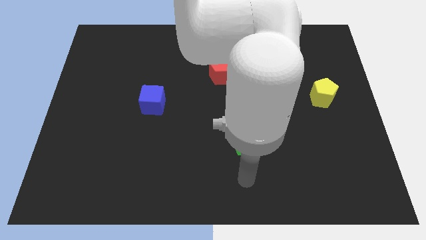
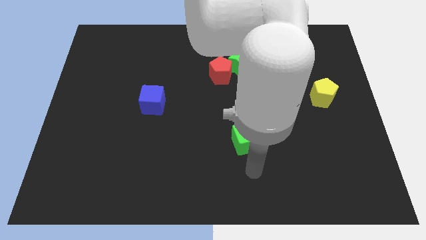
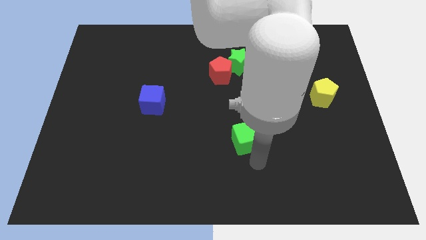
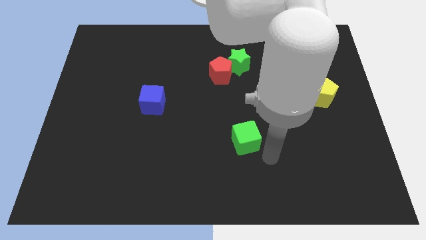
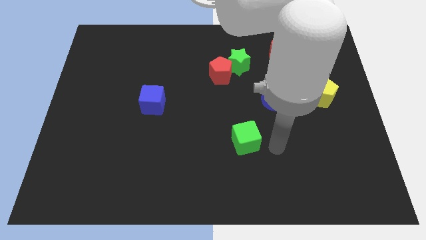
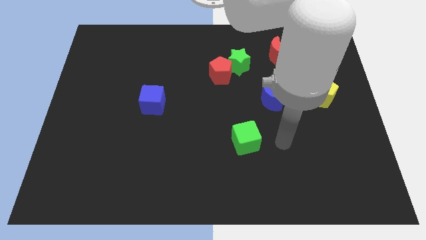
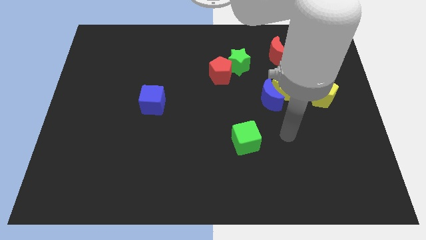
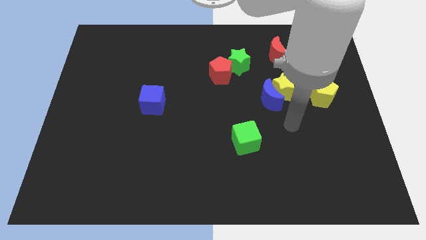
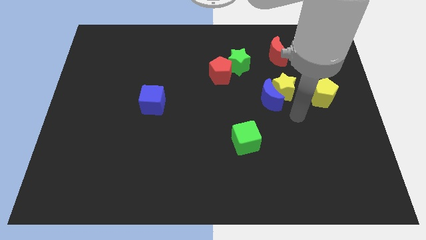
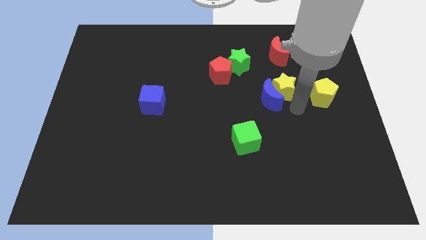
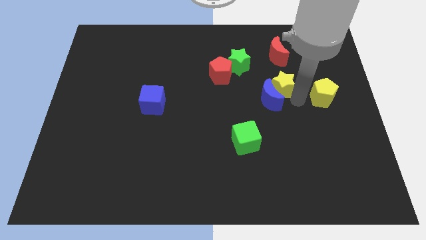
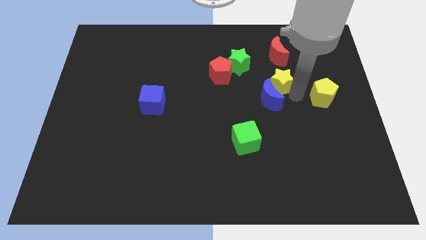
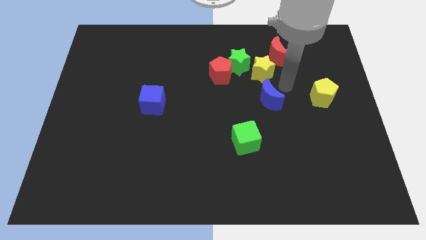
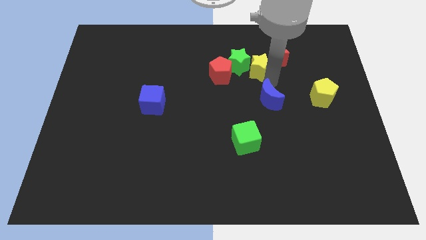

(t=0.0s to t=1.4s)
pull the blue moon apart from the yellow star

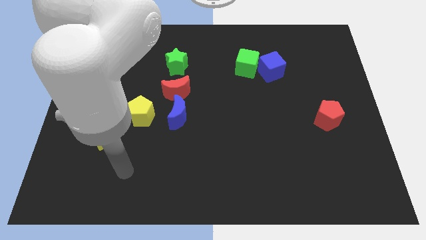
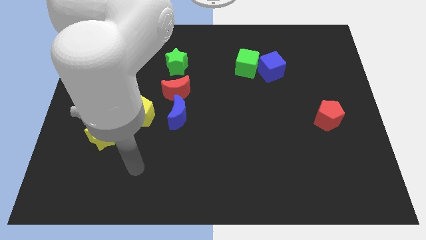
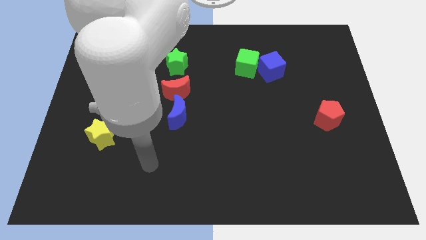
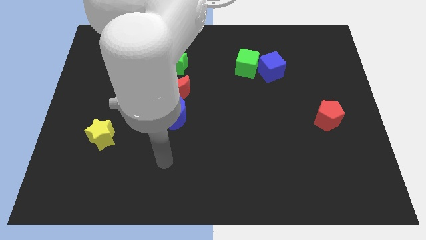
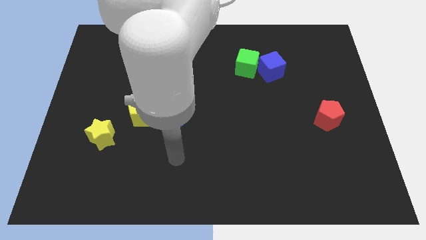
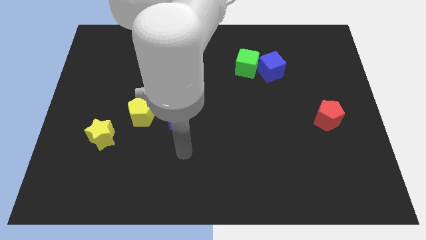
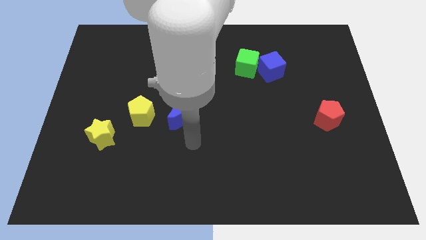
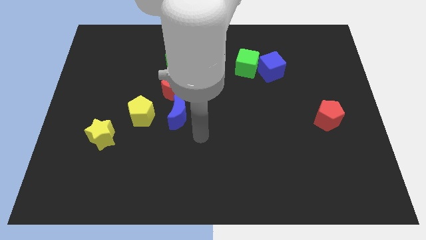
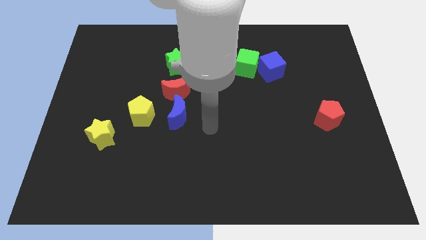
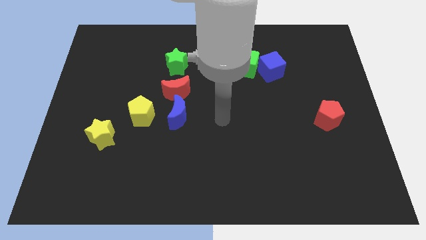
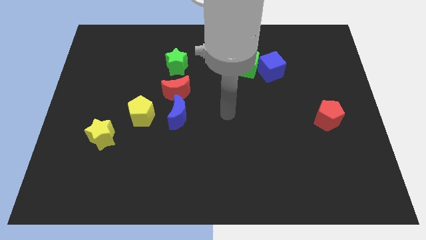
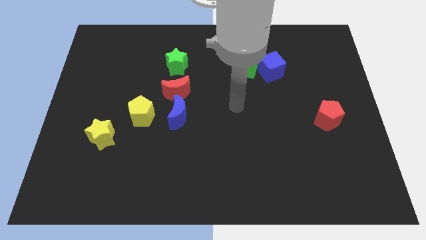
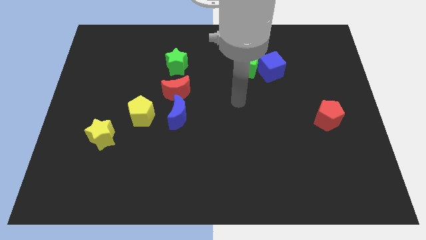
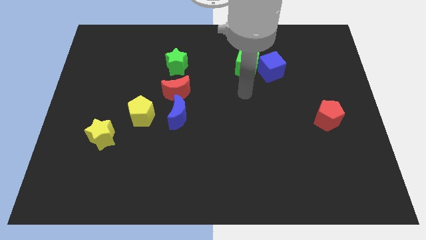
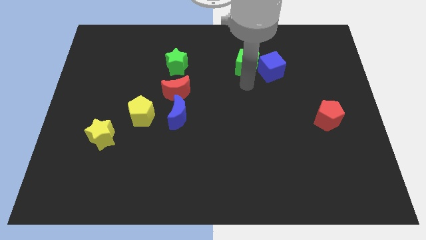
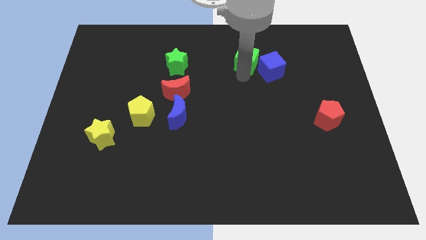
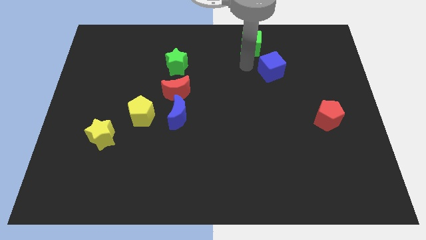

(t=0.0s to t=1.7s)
separate the blue cube from the green cube

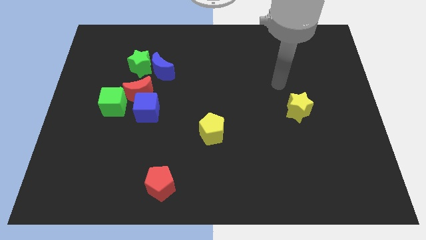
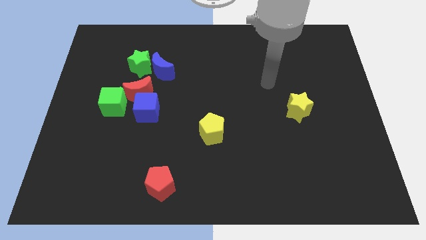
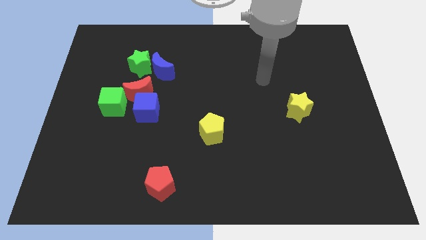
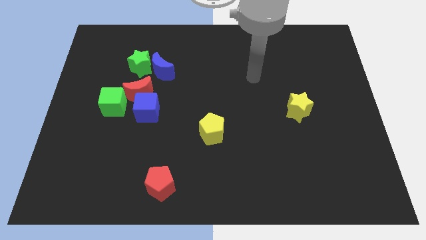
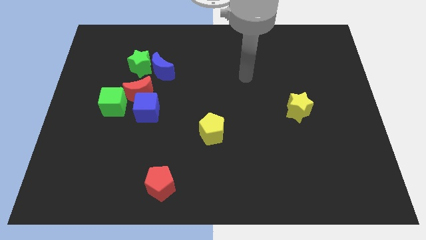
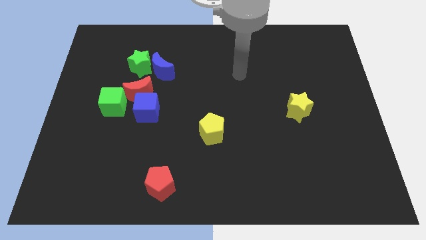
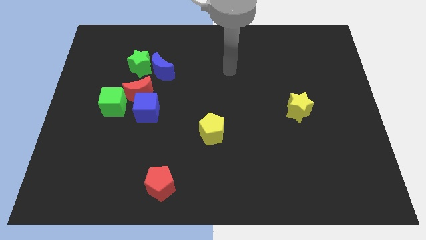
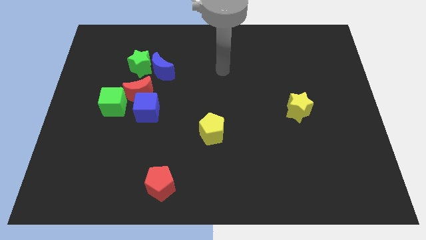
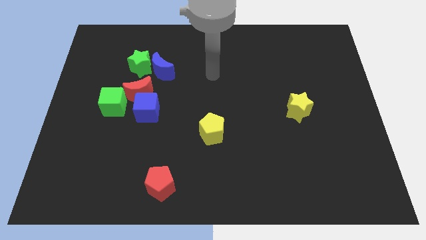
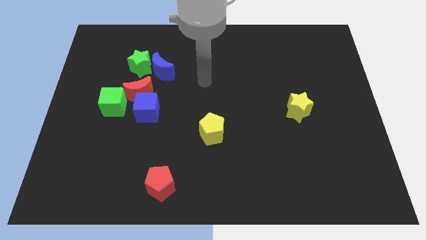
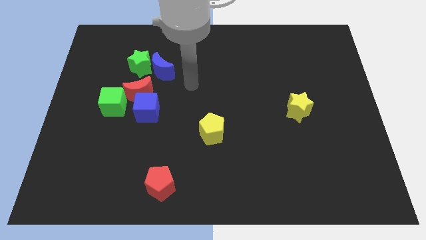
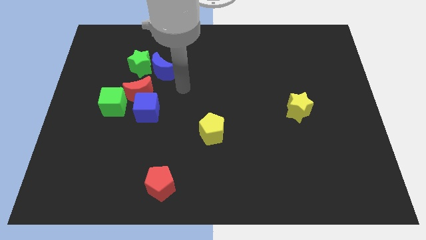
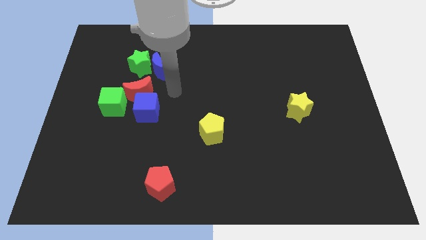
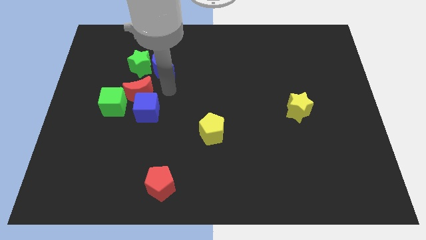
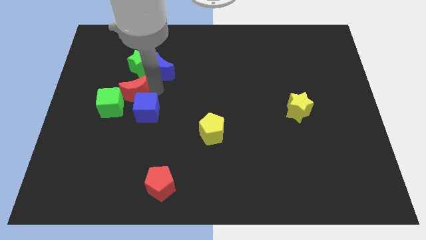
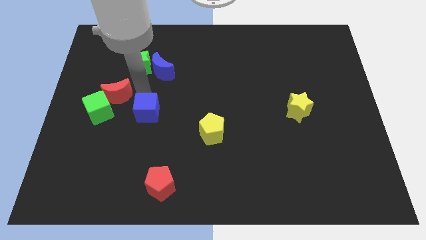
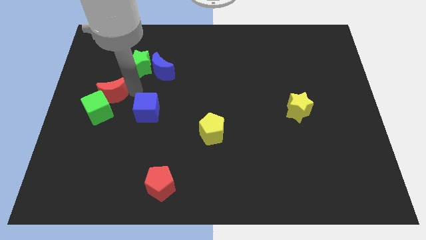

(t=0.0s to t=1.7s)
separate the blue cube from the red moon and green cube

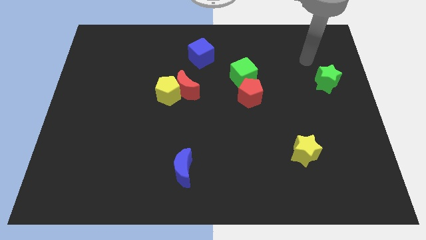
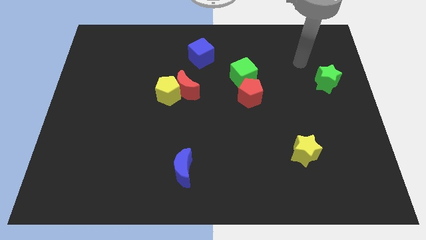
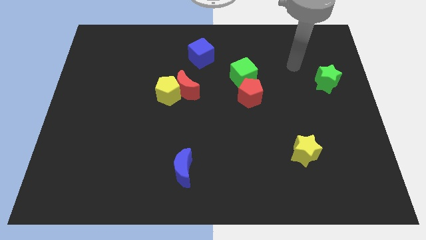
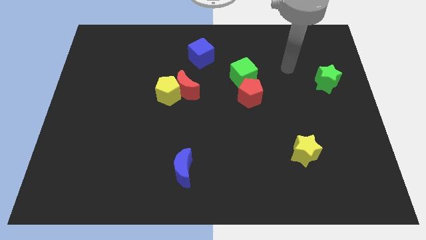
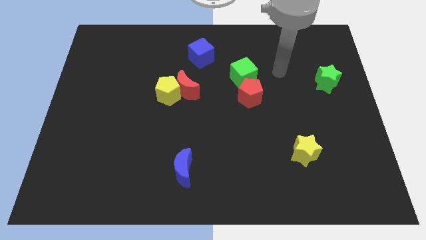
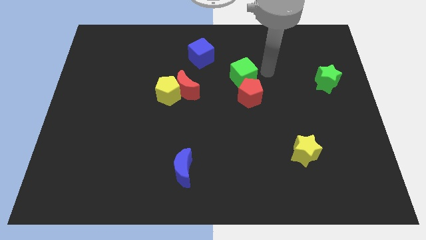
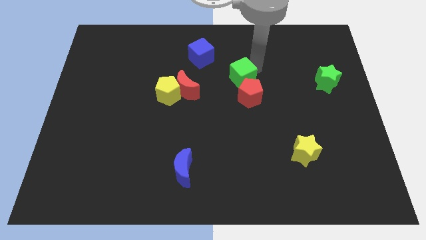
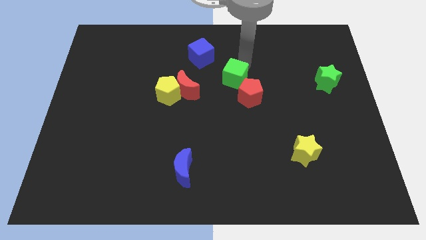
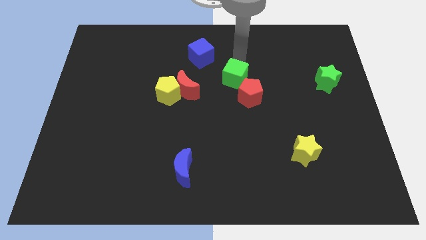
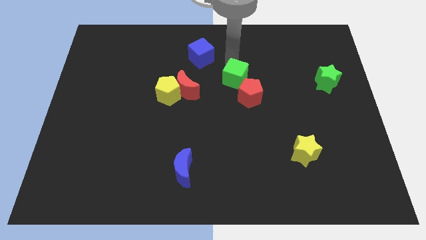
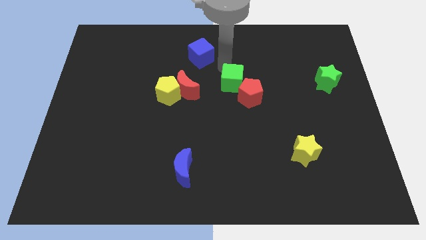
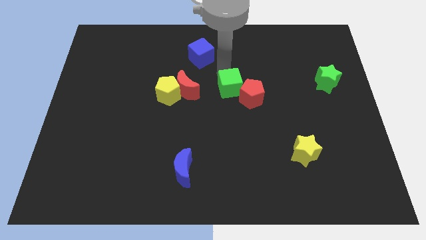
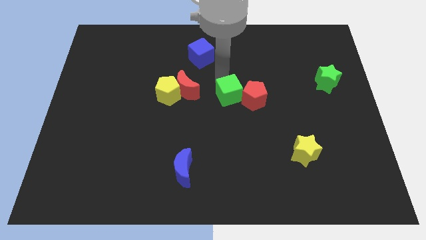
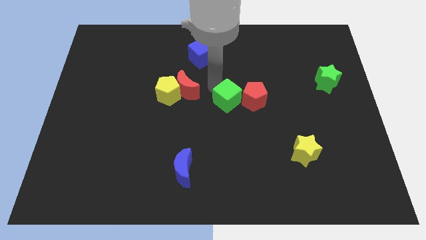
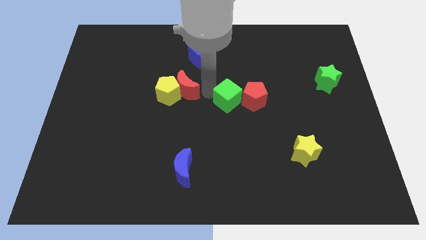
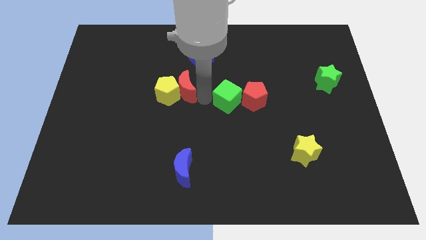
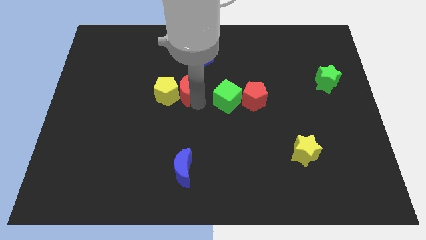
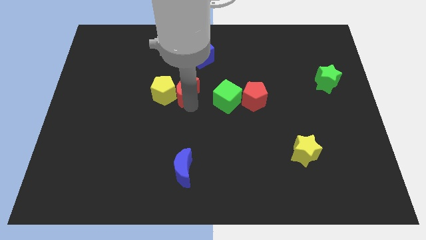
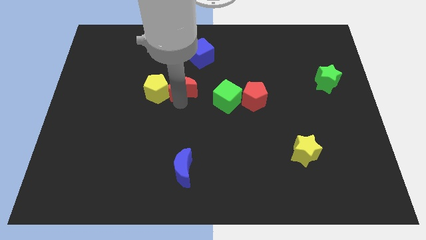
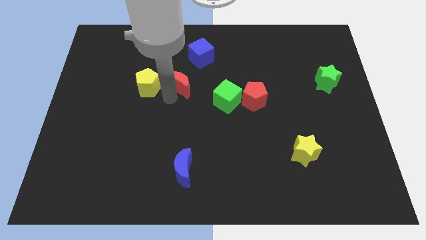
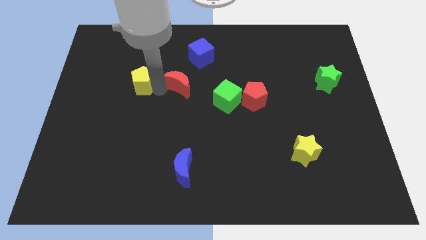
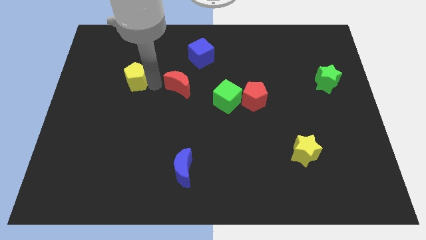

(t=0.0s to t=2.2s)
separate the red moon from the yellow pentagon

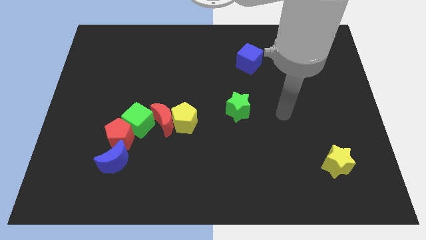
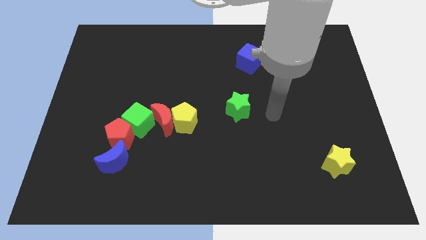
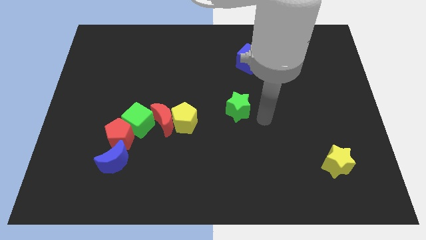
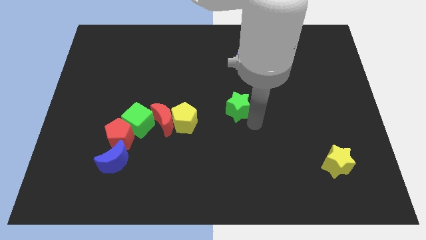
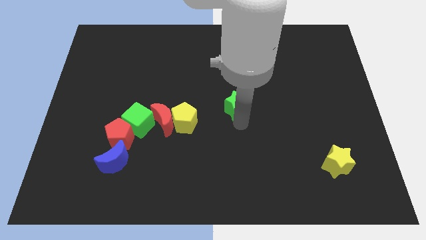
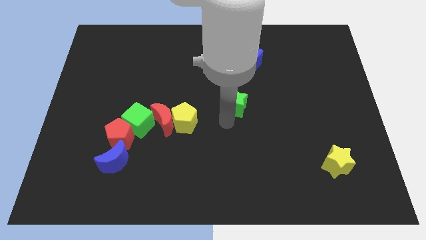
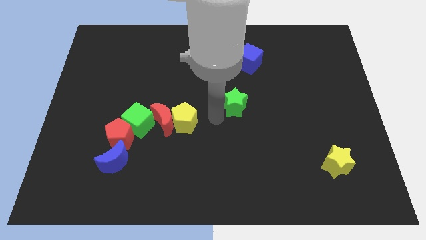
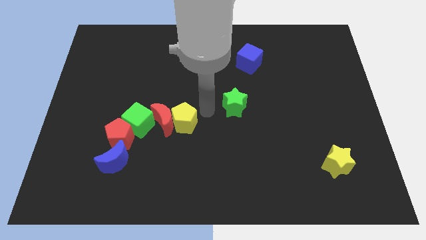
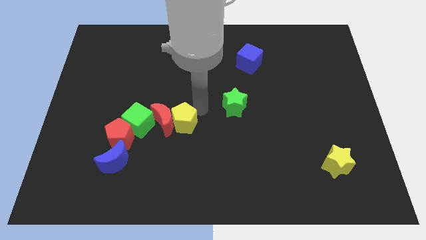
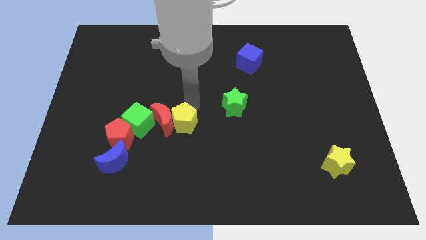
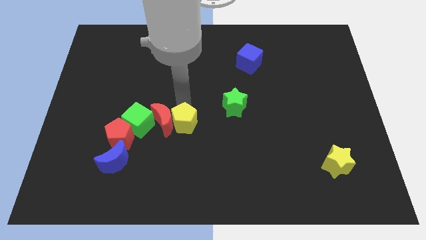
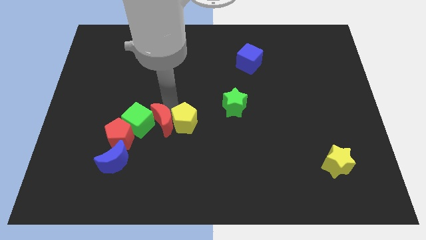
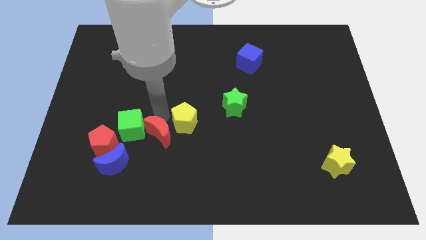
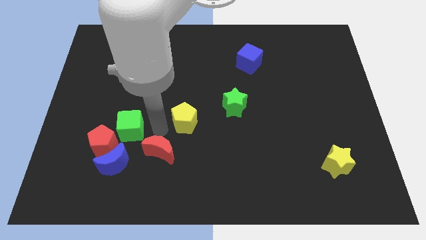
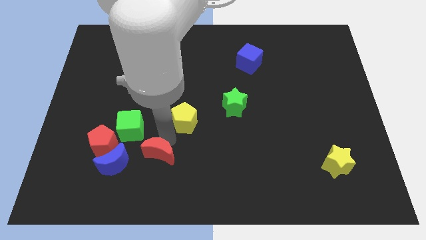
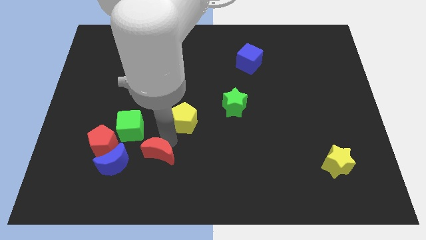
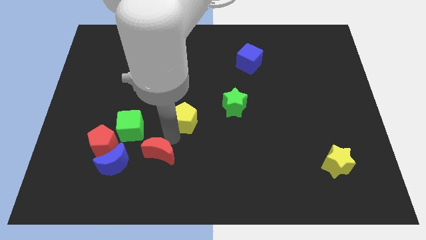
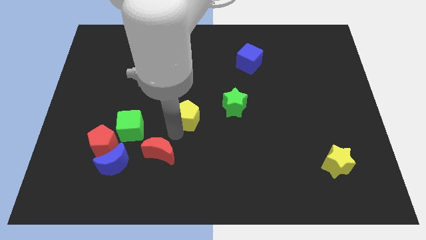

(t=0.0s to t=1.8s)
separate the yellow pentagon from the red moon

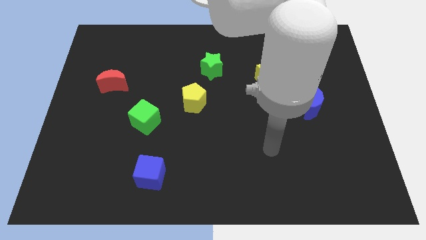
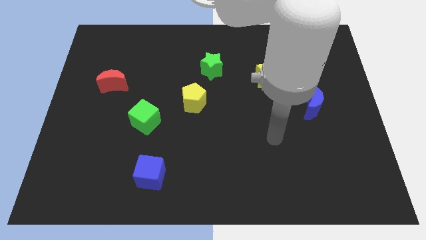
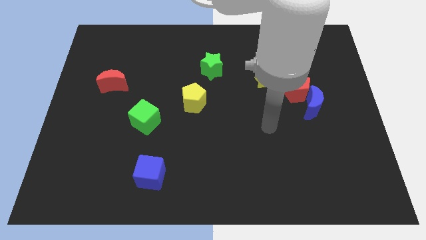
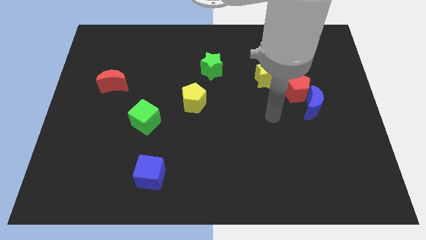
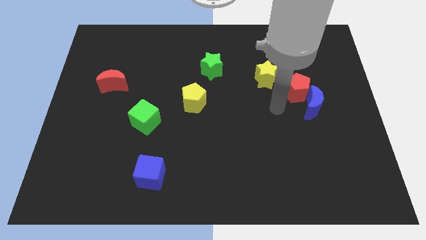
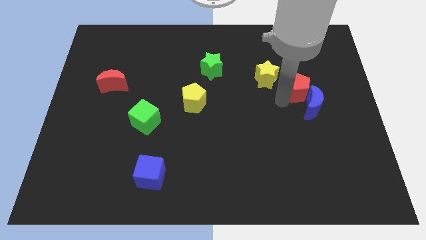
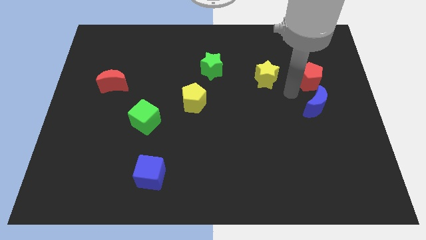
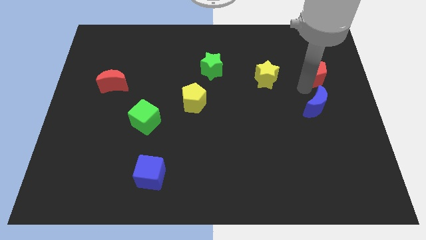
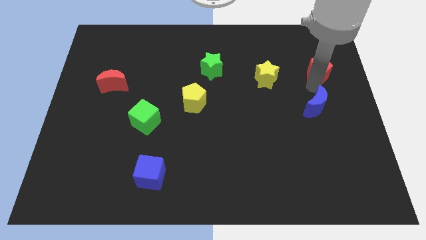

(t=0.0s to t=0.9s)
separate the blue moon from the red pentagon
